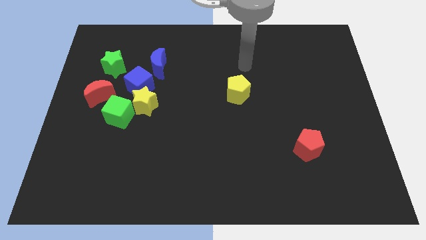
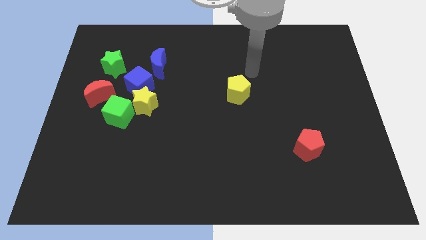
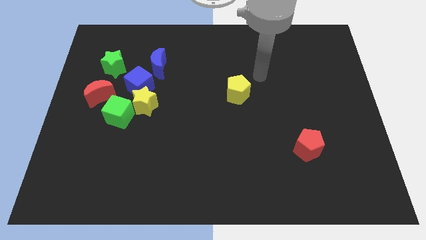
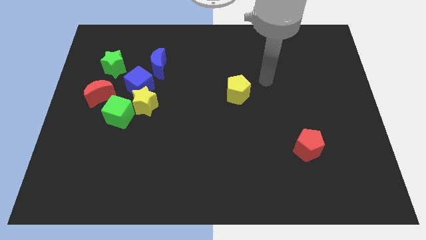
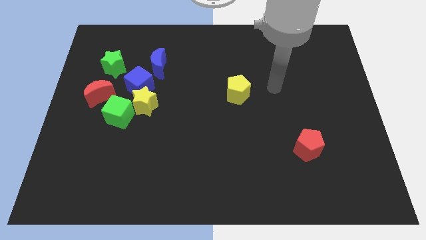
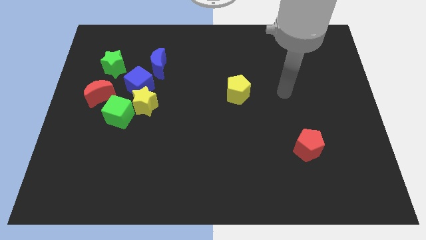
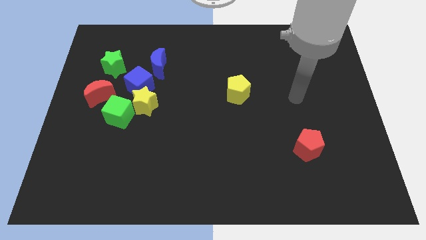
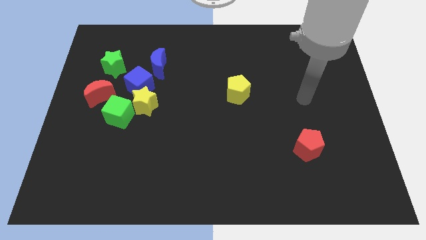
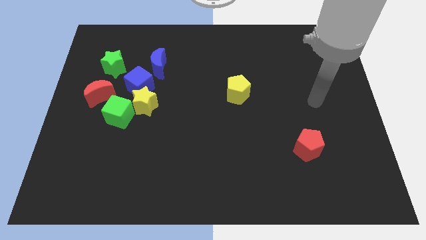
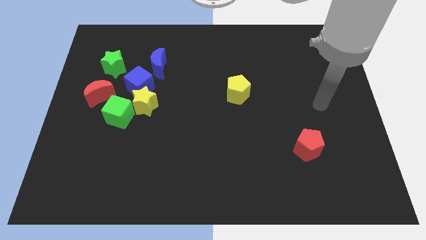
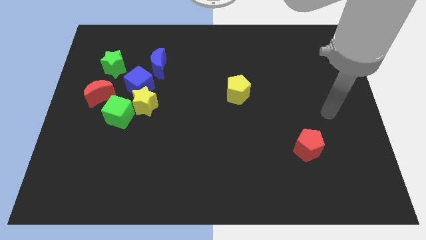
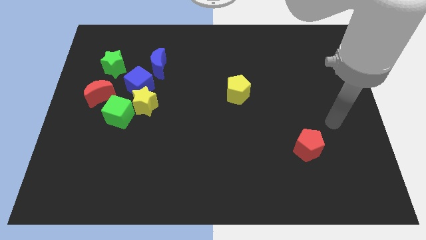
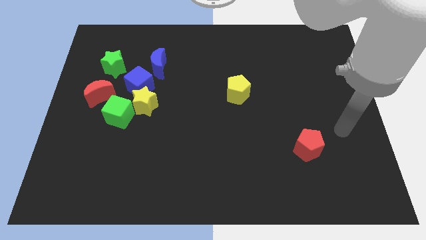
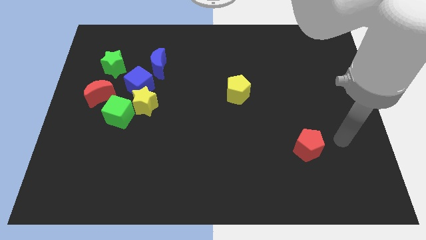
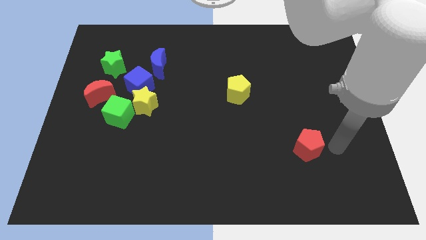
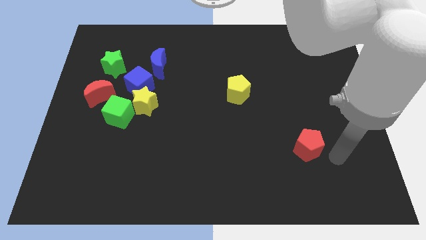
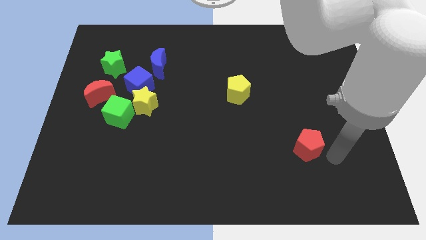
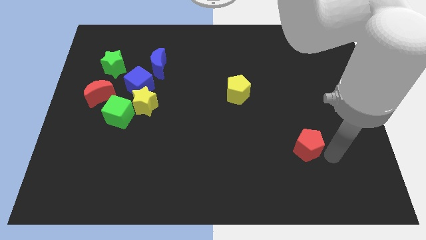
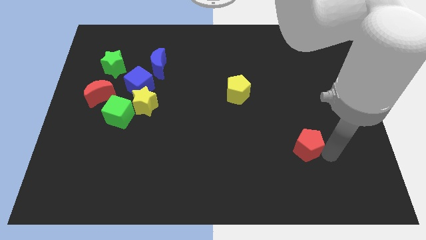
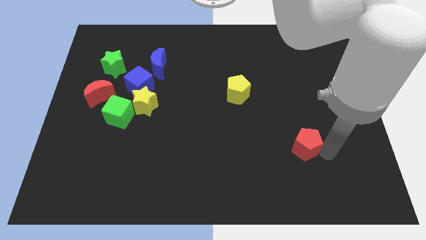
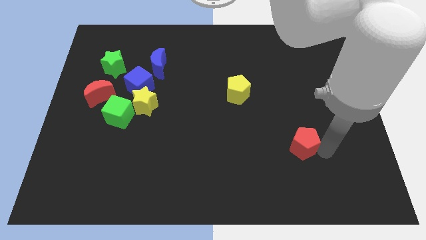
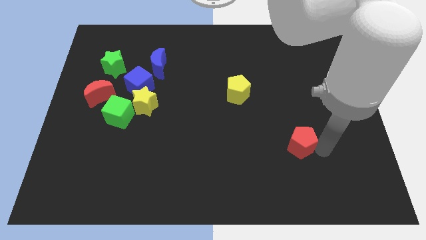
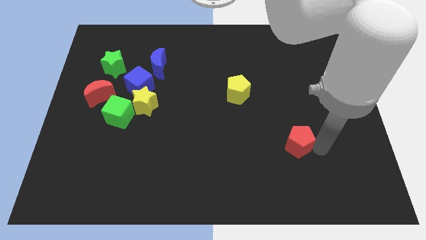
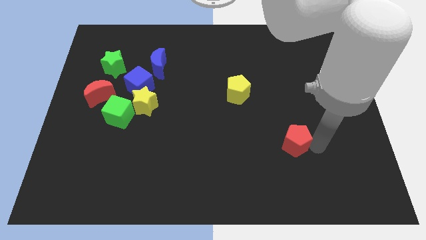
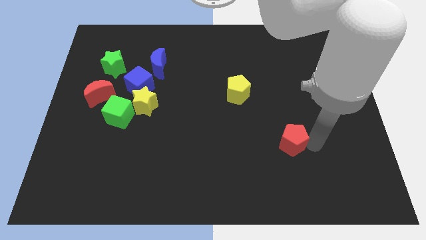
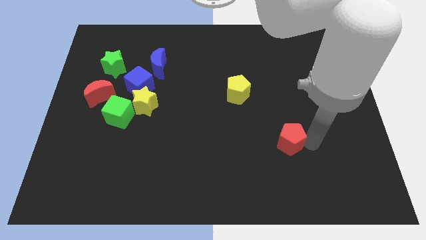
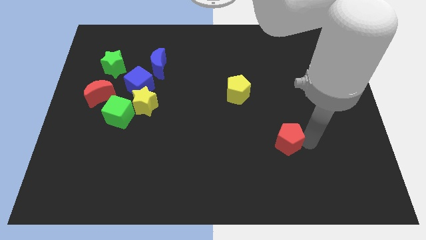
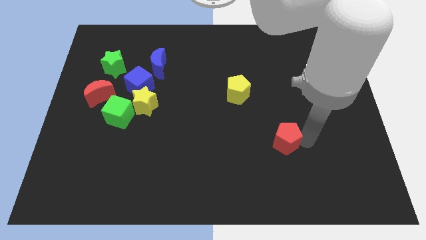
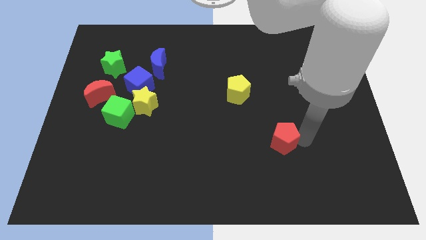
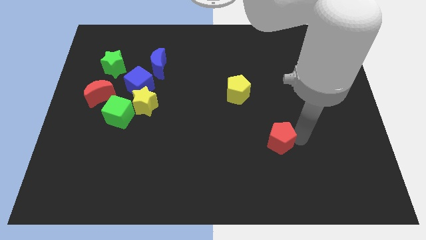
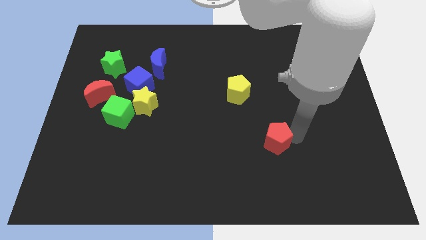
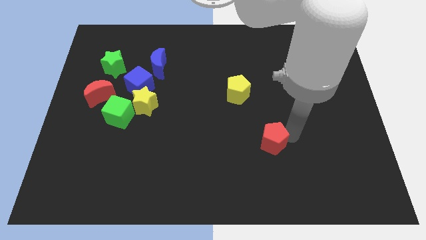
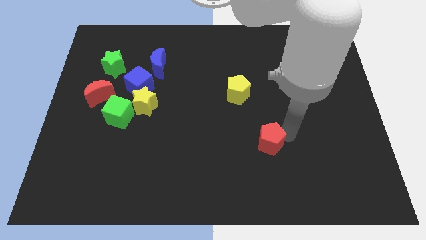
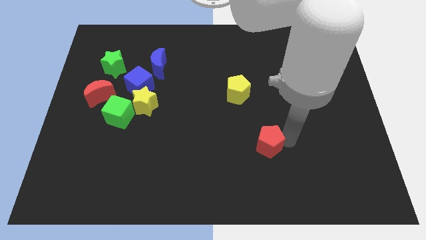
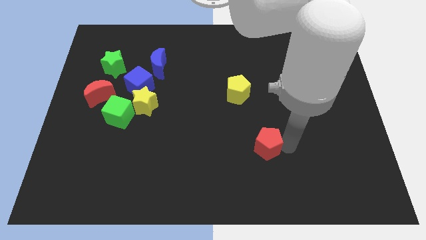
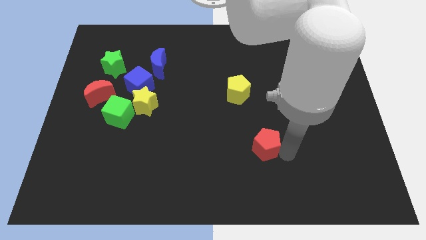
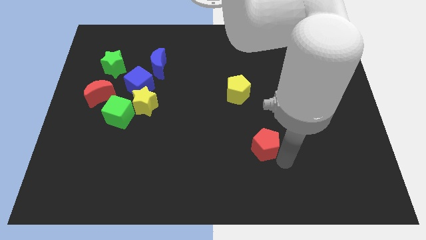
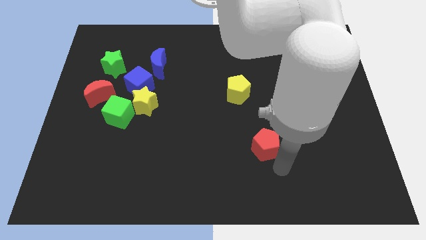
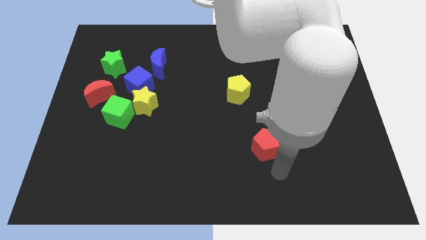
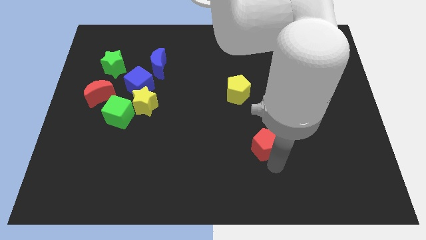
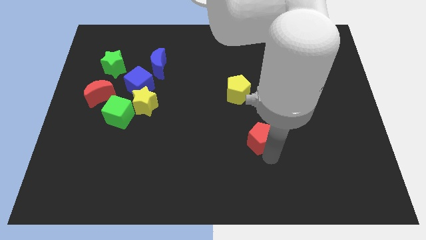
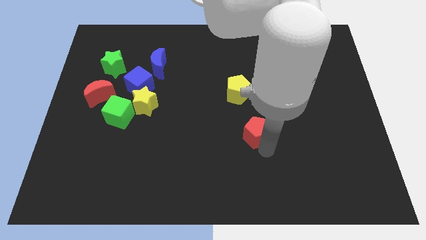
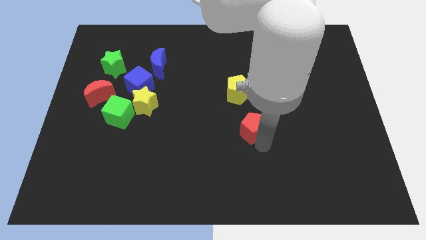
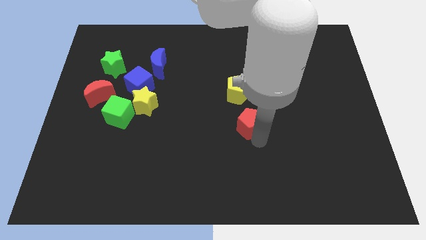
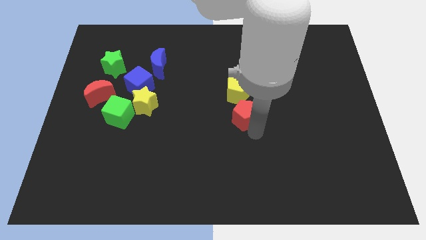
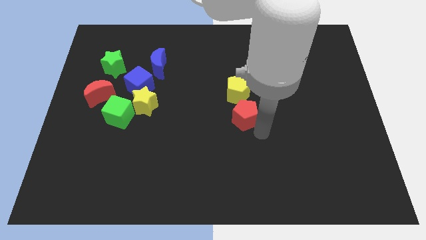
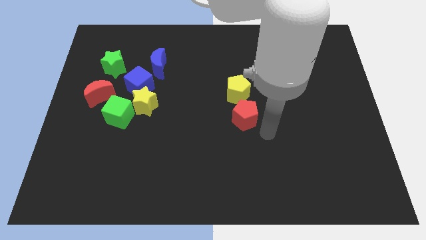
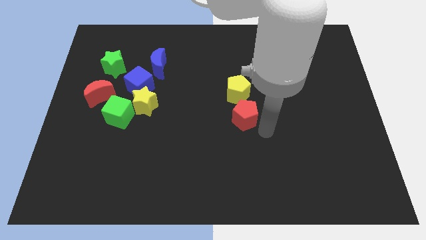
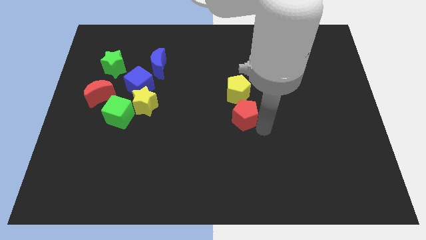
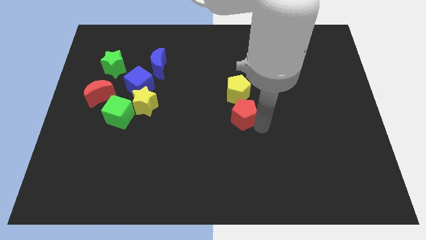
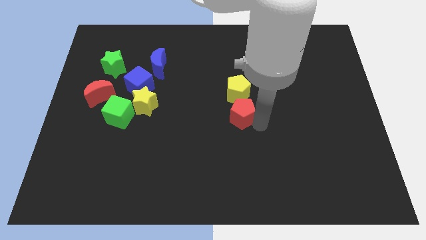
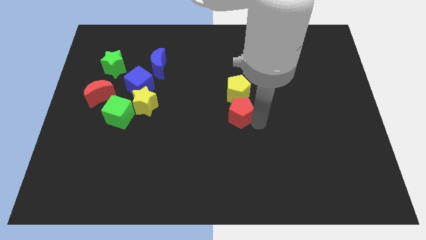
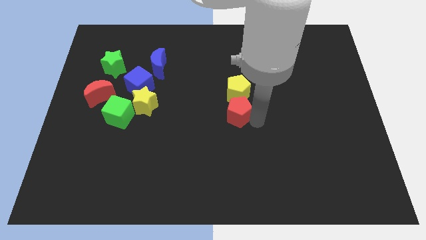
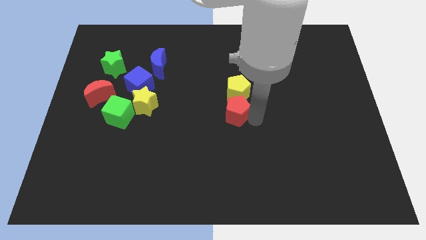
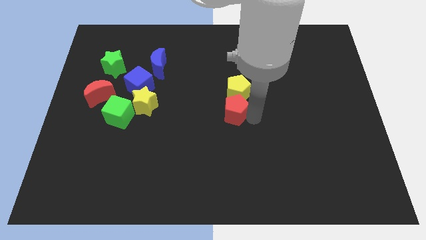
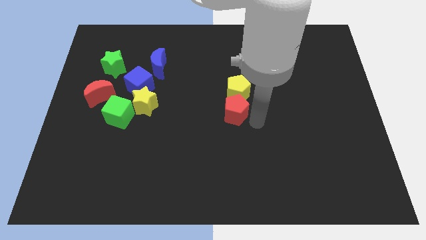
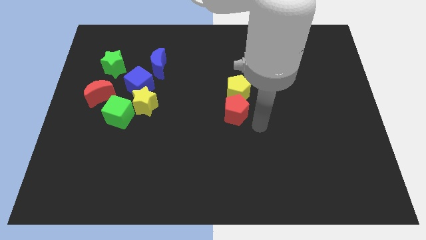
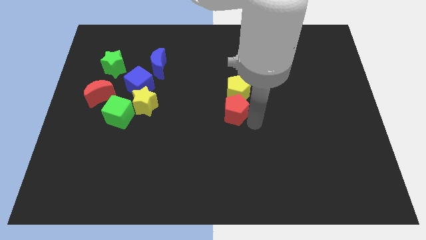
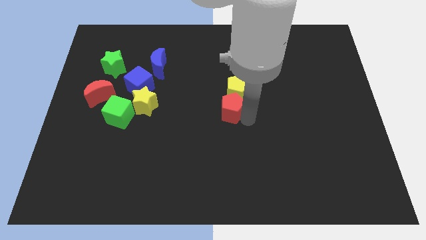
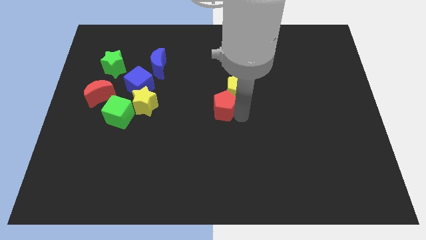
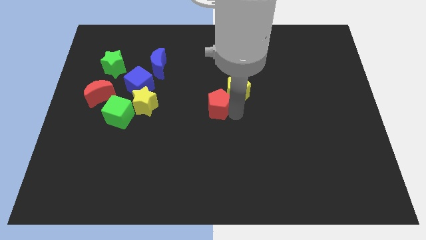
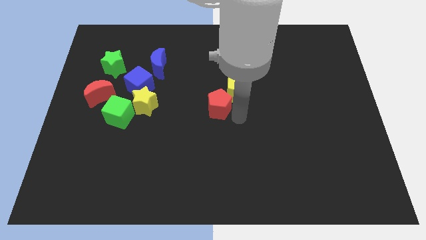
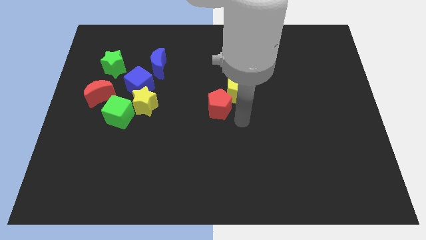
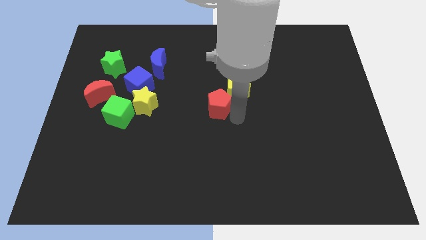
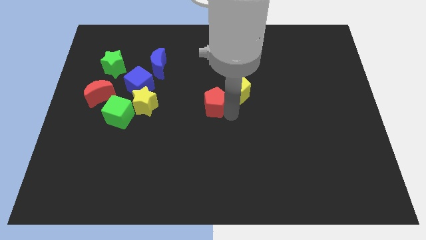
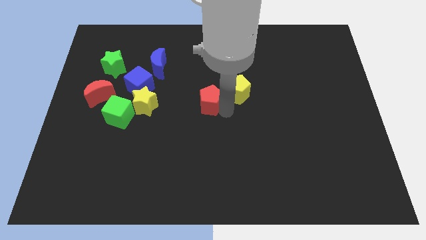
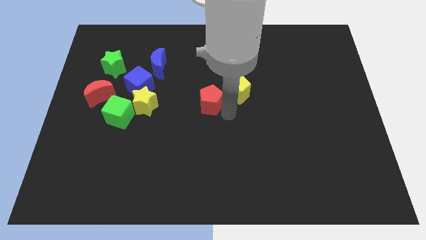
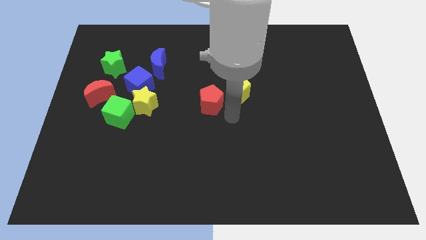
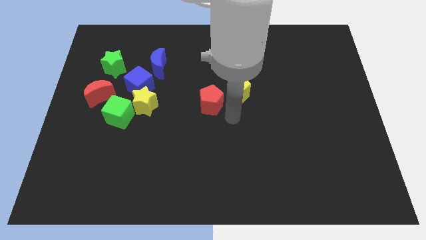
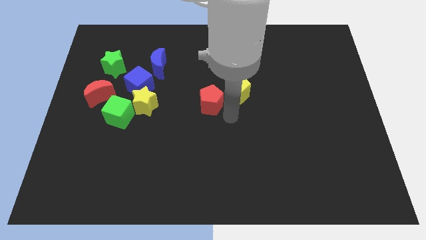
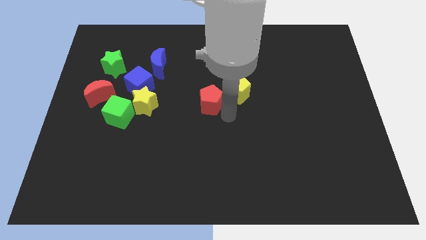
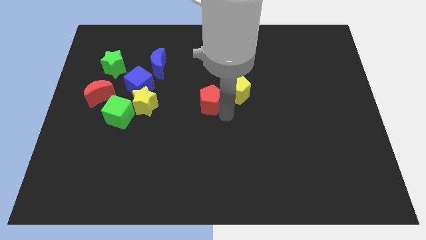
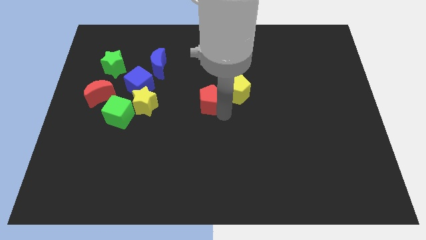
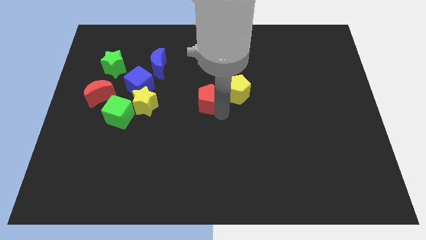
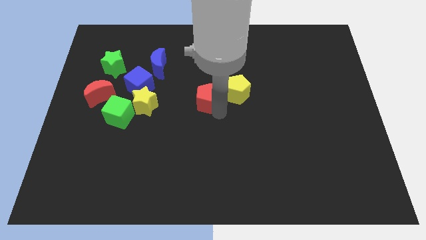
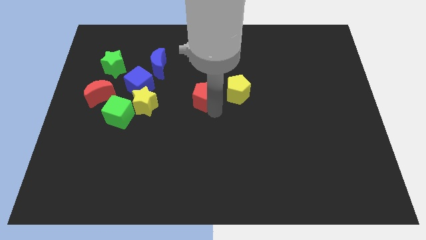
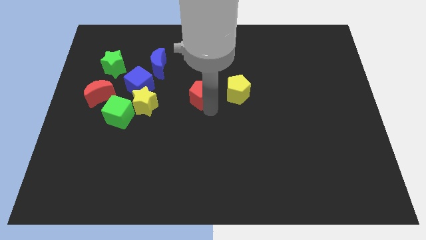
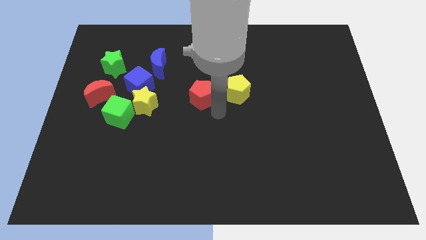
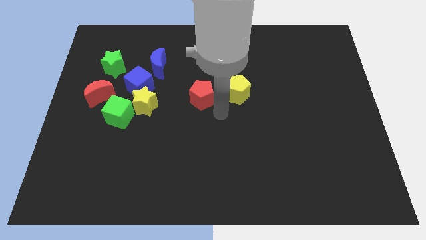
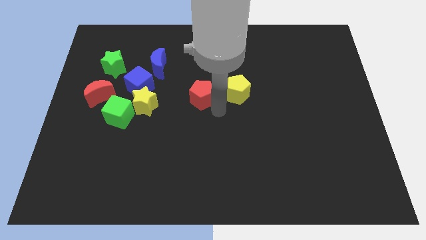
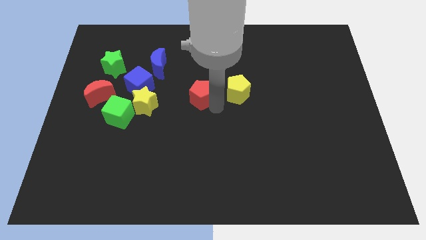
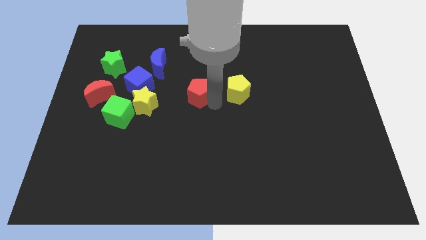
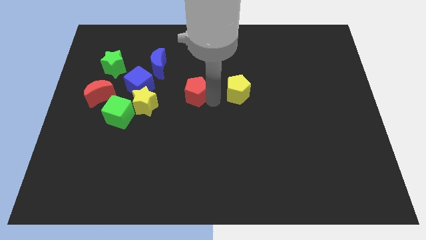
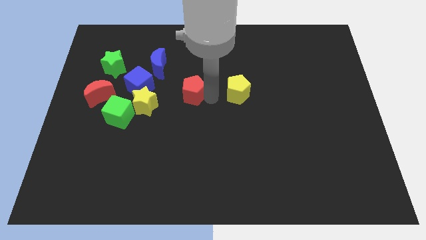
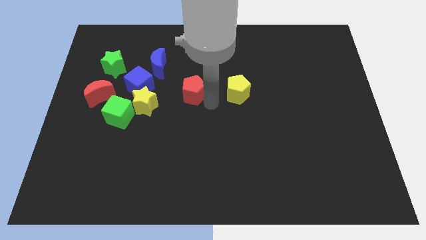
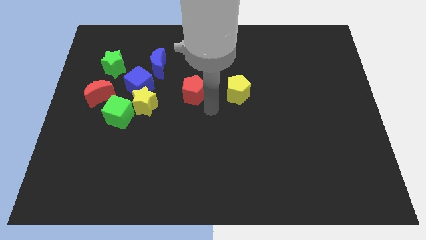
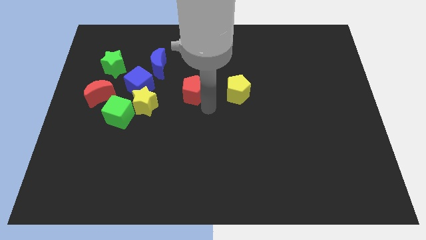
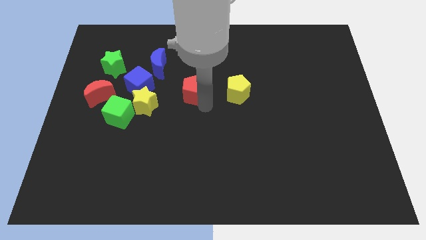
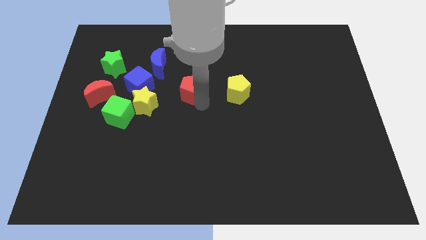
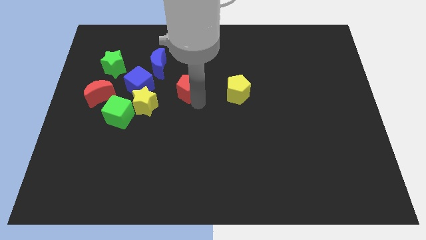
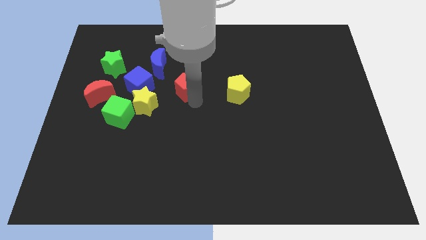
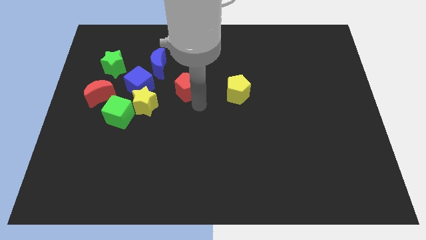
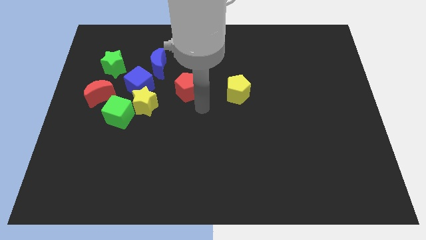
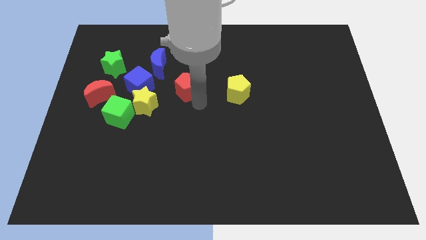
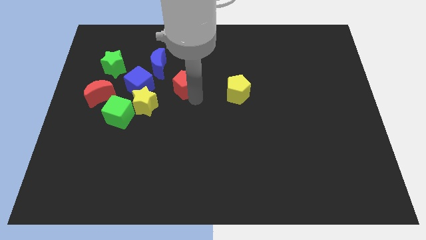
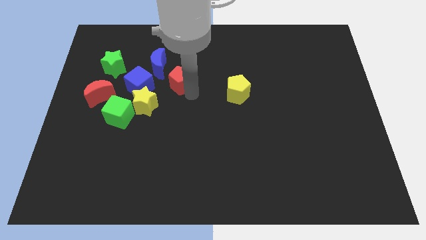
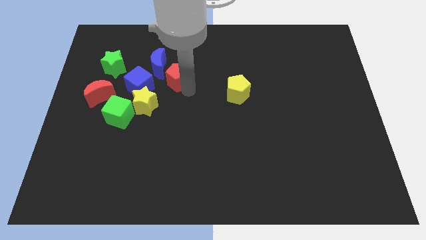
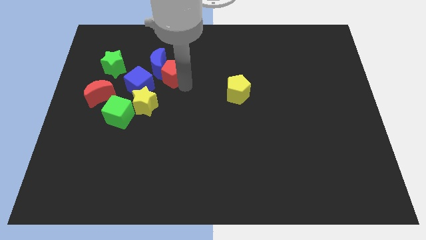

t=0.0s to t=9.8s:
move the red pentagon to the blue moon
